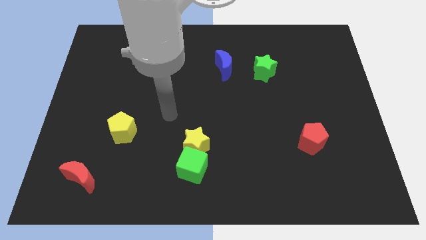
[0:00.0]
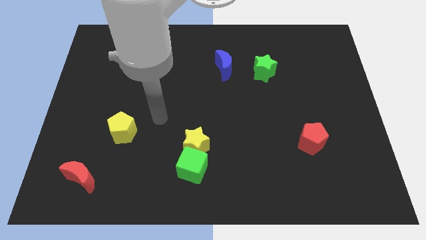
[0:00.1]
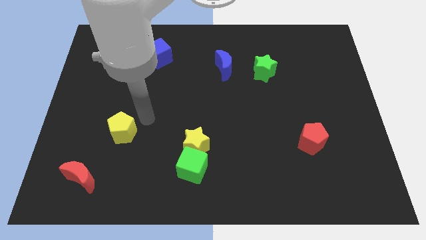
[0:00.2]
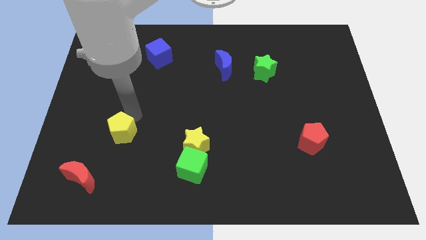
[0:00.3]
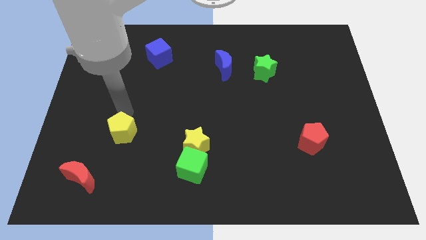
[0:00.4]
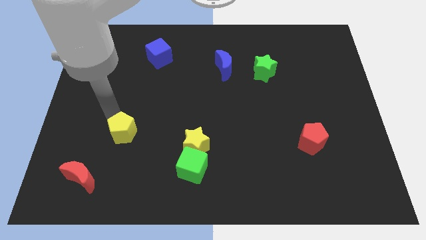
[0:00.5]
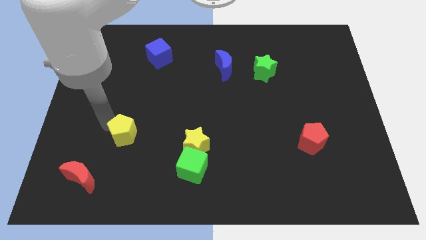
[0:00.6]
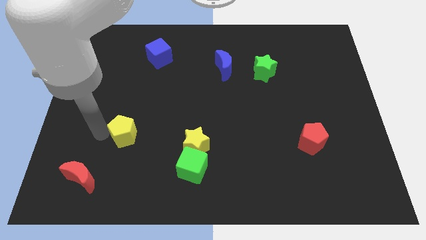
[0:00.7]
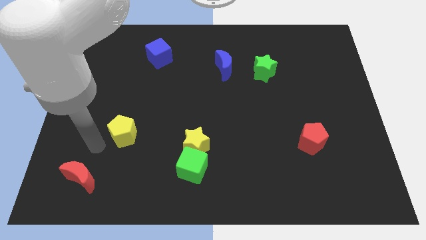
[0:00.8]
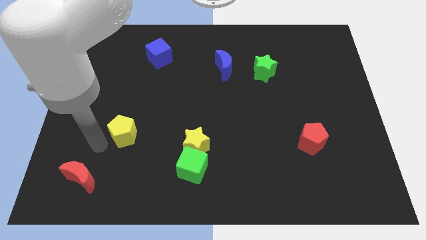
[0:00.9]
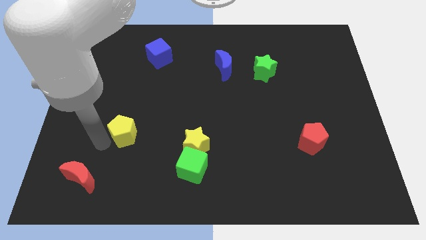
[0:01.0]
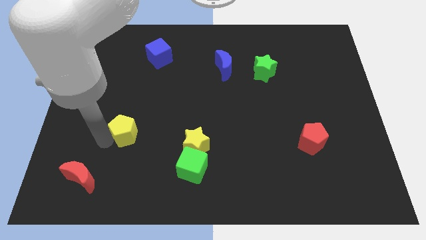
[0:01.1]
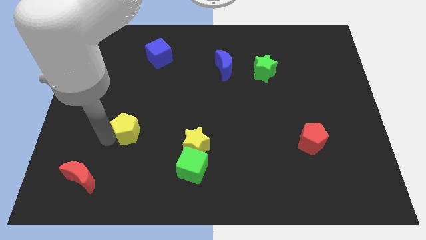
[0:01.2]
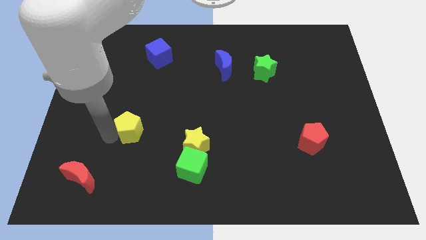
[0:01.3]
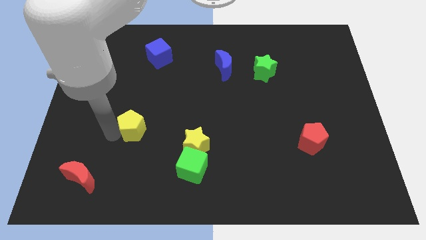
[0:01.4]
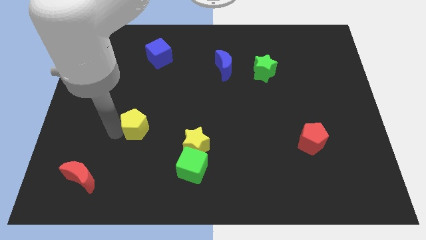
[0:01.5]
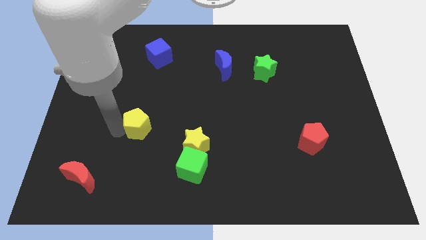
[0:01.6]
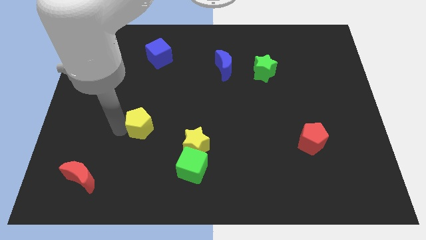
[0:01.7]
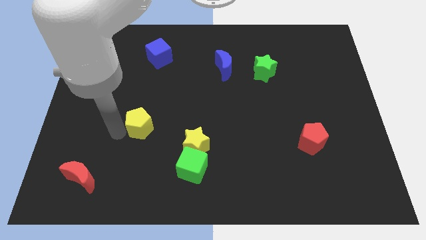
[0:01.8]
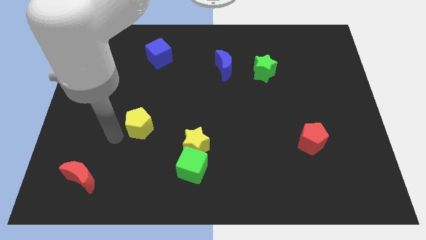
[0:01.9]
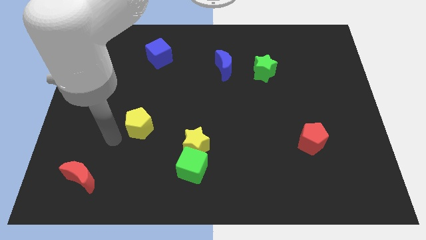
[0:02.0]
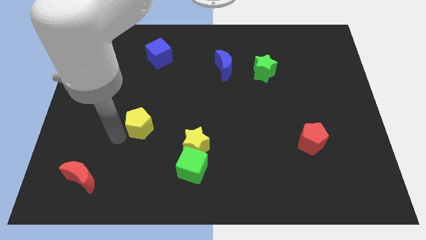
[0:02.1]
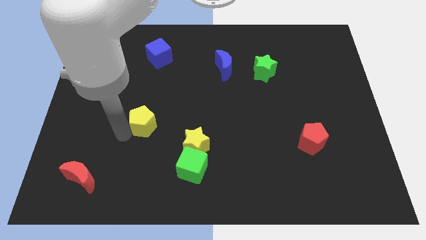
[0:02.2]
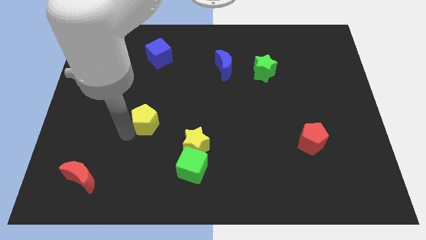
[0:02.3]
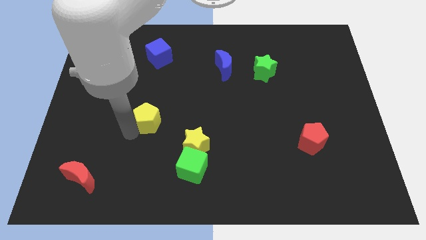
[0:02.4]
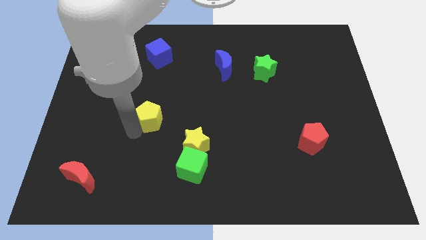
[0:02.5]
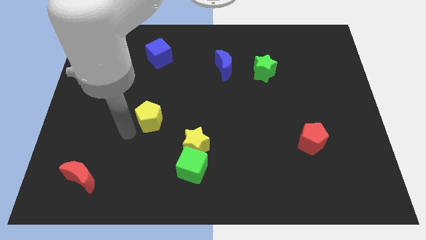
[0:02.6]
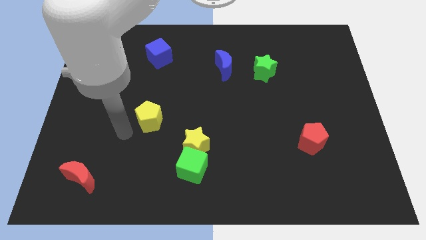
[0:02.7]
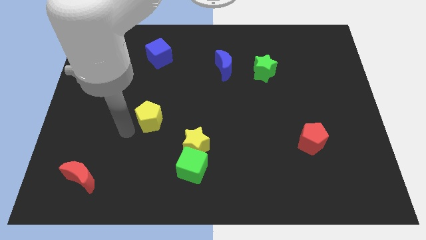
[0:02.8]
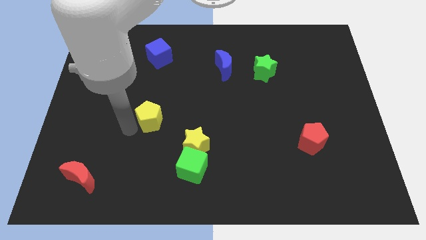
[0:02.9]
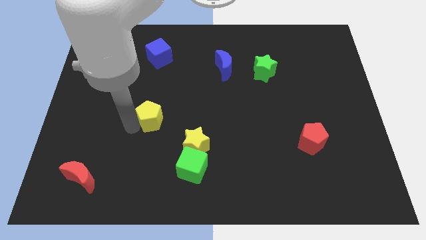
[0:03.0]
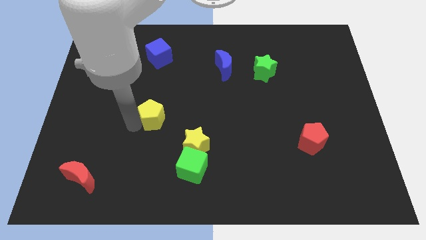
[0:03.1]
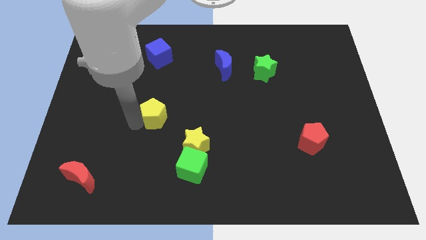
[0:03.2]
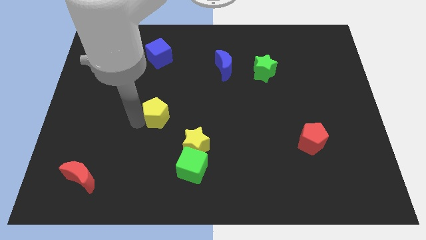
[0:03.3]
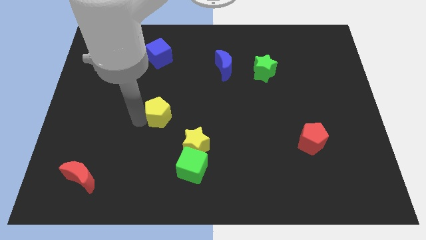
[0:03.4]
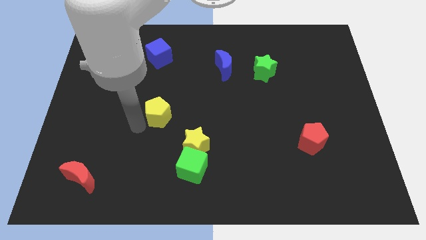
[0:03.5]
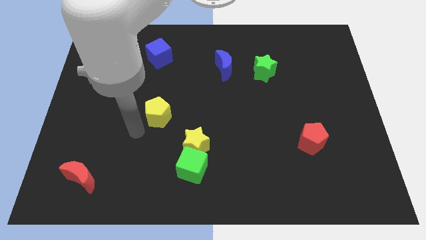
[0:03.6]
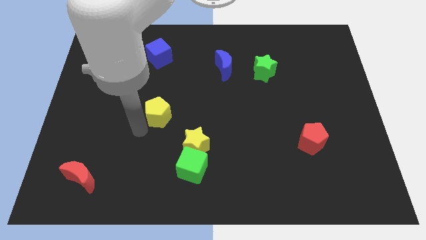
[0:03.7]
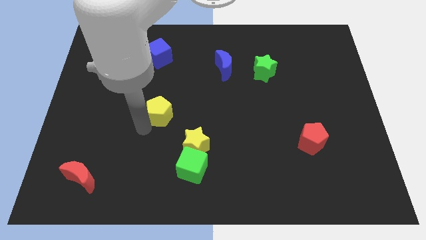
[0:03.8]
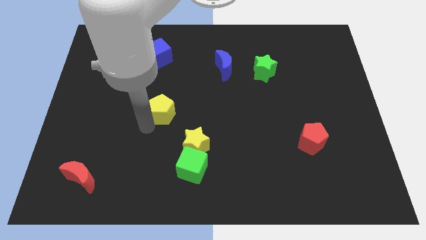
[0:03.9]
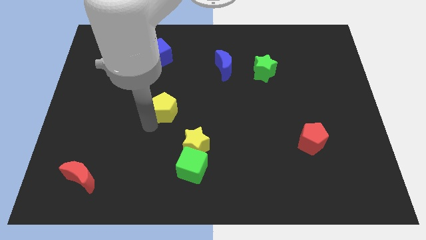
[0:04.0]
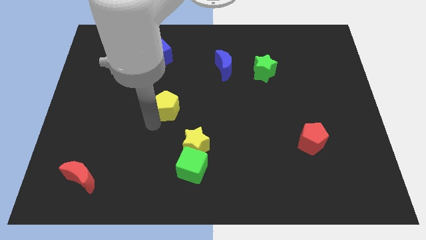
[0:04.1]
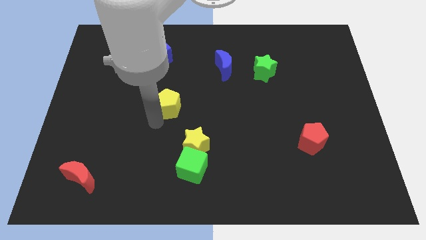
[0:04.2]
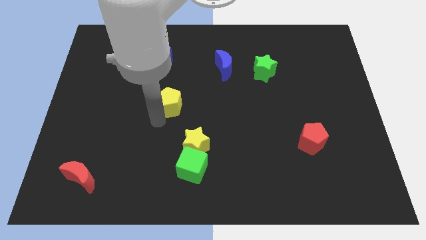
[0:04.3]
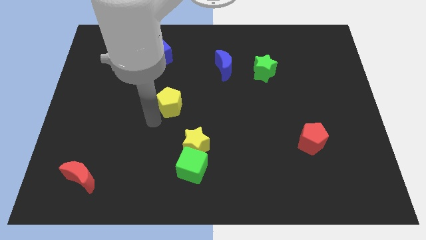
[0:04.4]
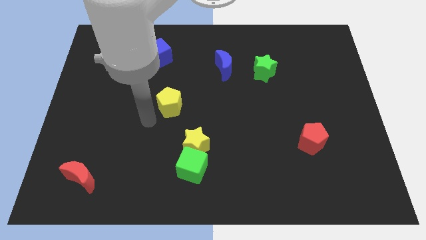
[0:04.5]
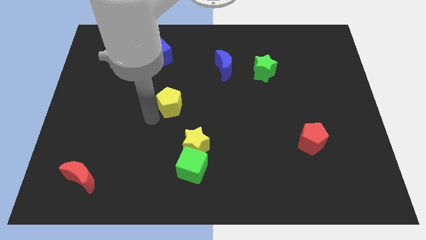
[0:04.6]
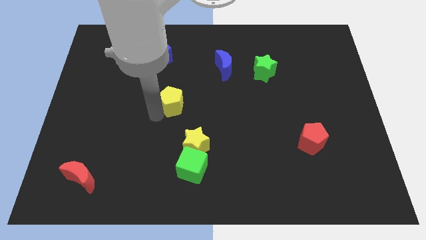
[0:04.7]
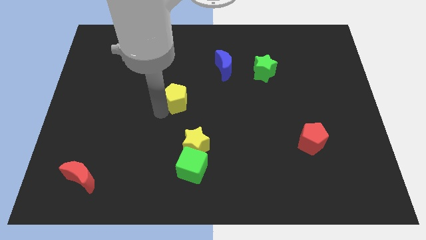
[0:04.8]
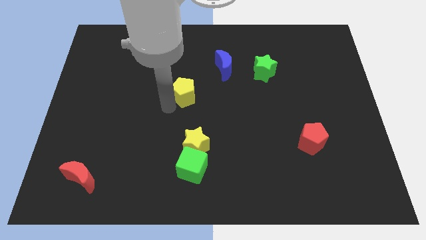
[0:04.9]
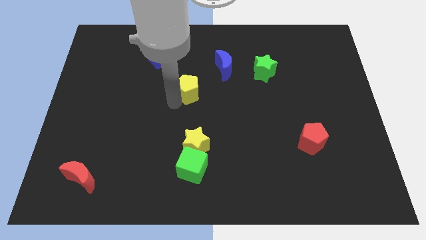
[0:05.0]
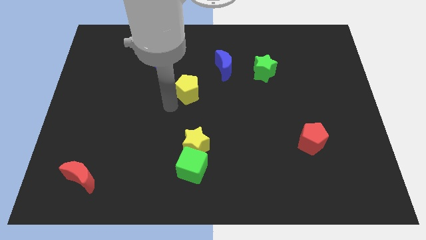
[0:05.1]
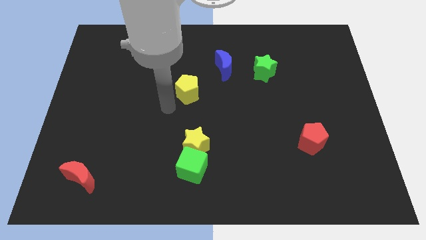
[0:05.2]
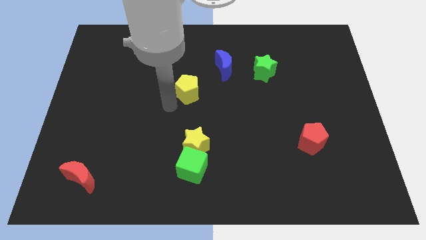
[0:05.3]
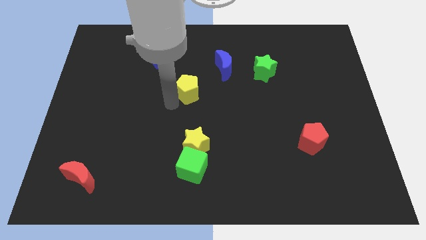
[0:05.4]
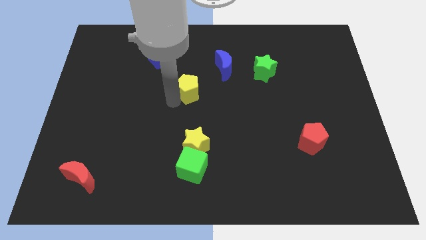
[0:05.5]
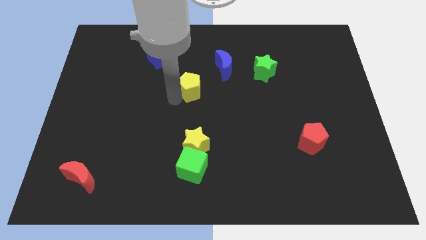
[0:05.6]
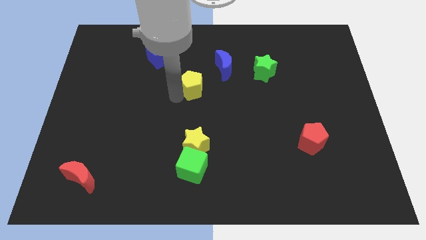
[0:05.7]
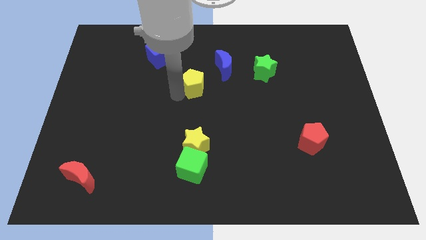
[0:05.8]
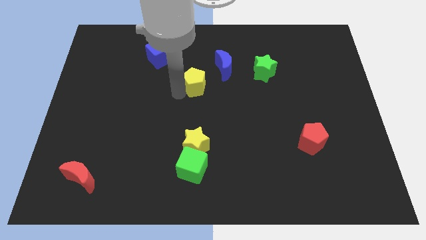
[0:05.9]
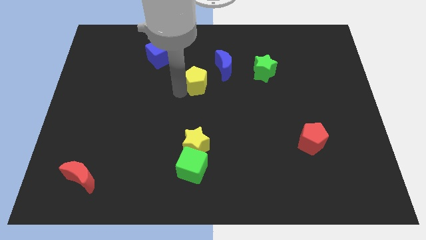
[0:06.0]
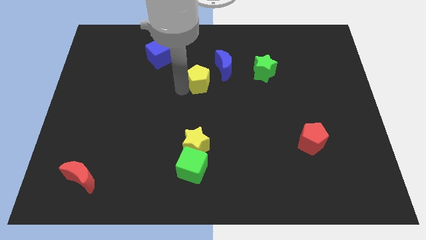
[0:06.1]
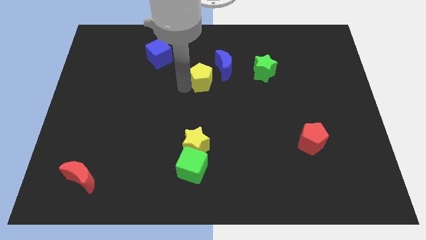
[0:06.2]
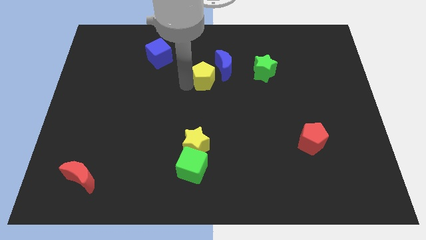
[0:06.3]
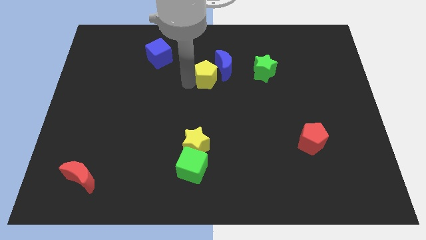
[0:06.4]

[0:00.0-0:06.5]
push the yellow pentagon close to the blue moon
